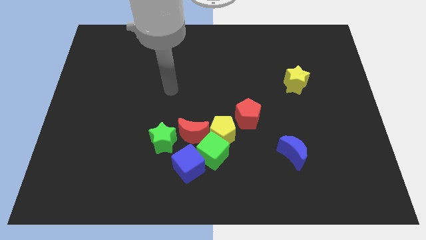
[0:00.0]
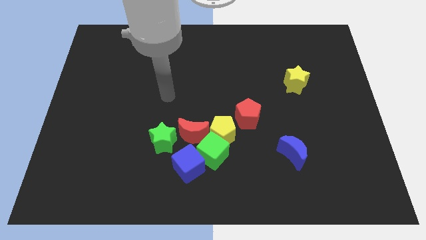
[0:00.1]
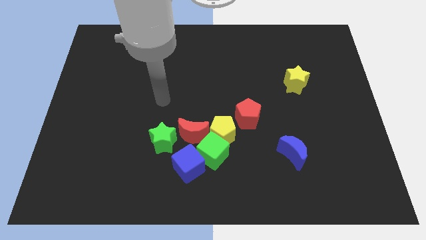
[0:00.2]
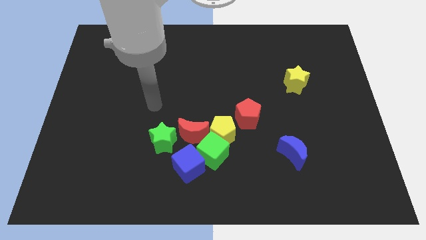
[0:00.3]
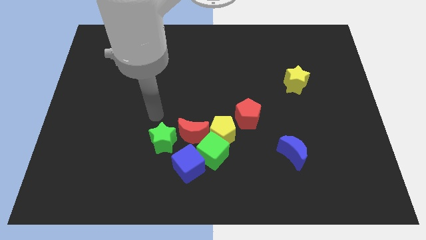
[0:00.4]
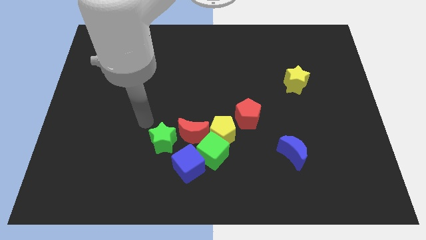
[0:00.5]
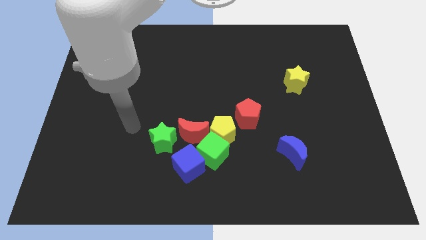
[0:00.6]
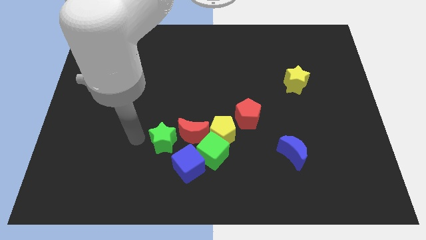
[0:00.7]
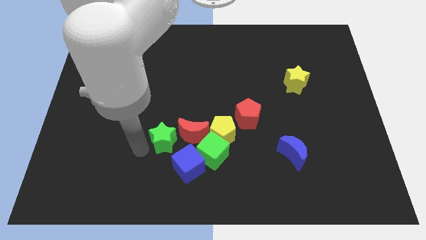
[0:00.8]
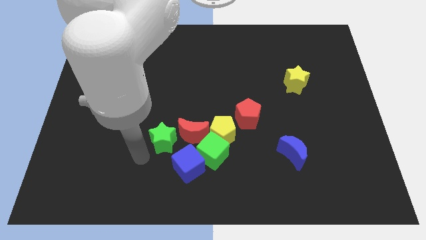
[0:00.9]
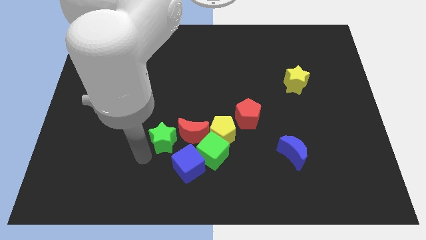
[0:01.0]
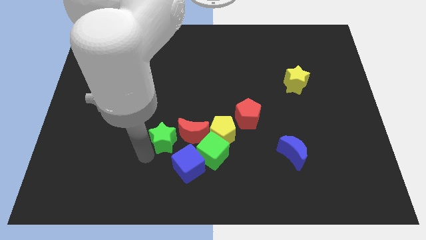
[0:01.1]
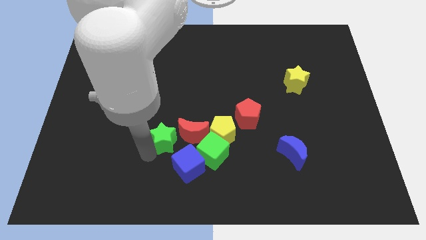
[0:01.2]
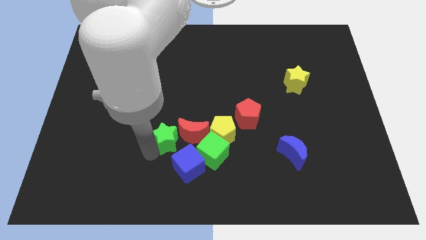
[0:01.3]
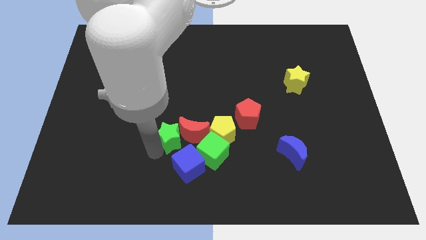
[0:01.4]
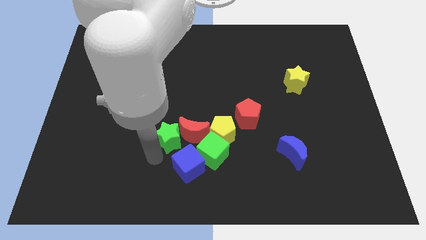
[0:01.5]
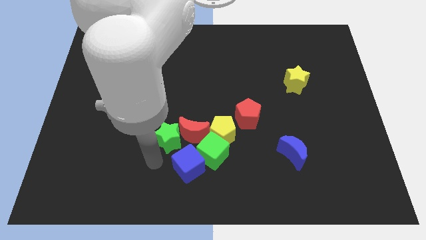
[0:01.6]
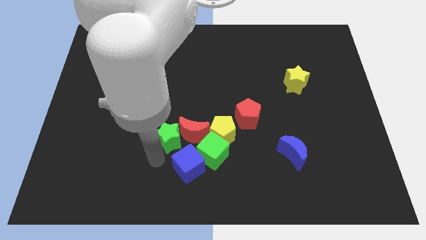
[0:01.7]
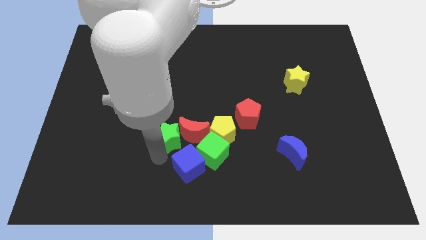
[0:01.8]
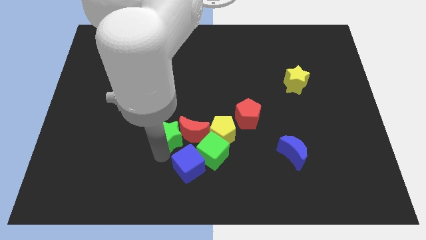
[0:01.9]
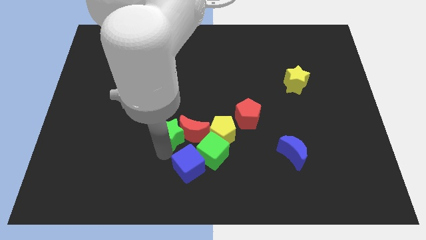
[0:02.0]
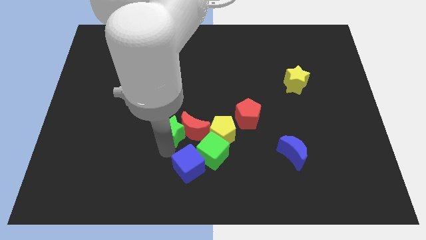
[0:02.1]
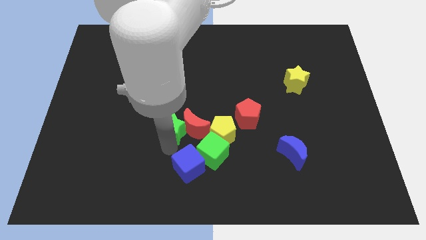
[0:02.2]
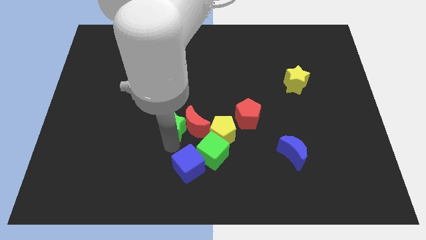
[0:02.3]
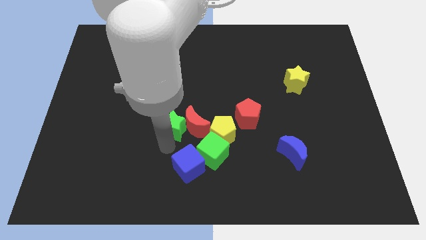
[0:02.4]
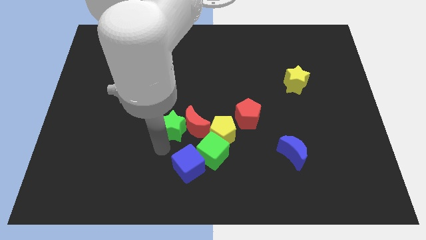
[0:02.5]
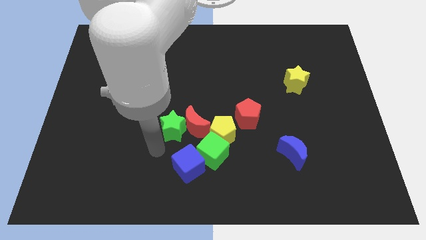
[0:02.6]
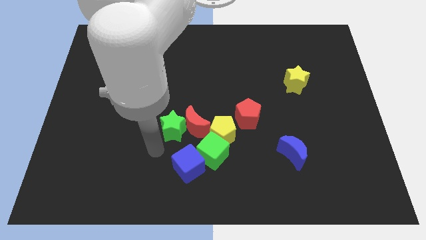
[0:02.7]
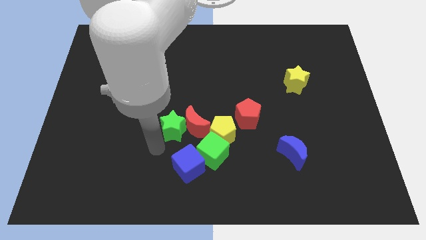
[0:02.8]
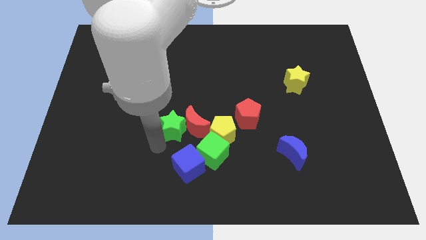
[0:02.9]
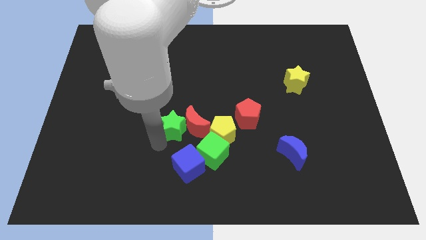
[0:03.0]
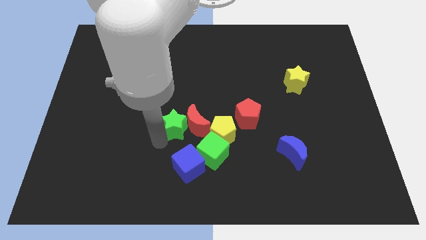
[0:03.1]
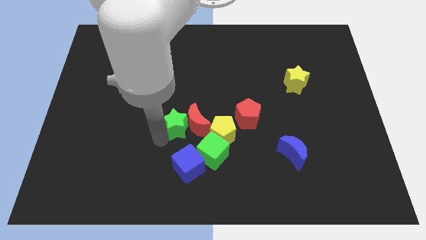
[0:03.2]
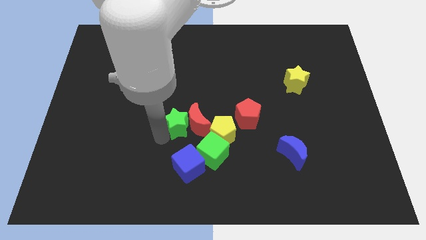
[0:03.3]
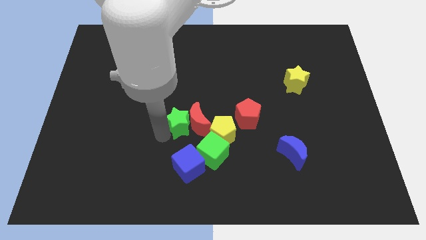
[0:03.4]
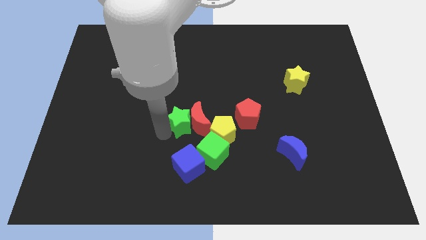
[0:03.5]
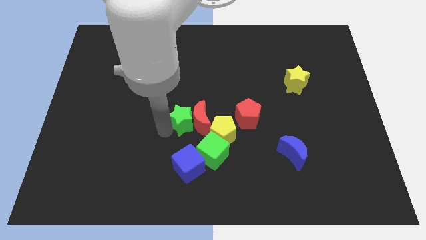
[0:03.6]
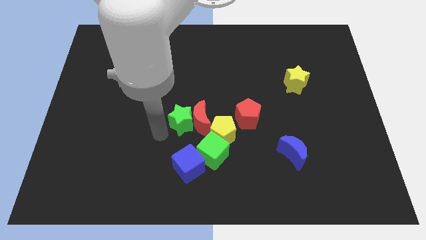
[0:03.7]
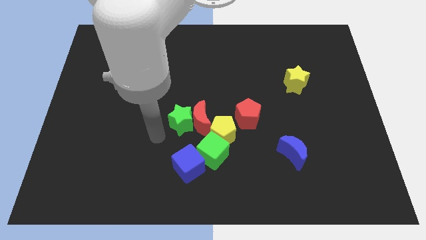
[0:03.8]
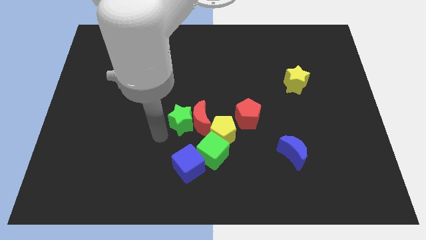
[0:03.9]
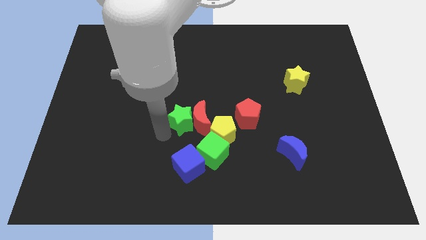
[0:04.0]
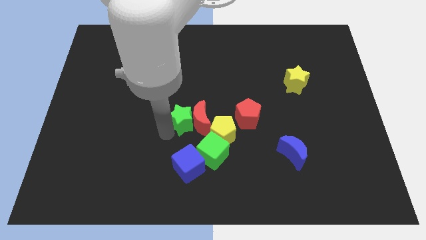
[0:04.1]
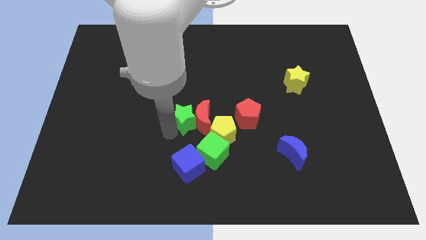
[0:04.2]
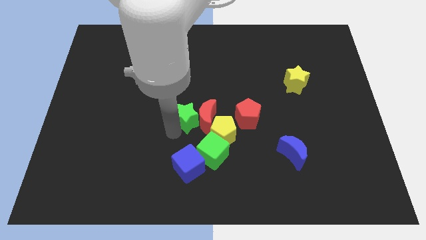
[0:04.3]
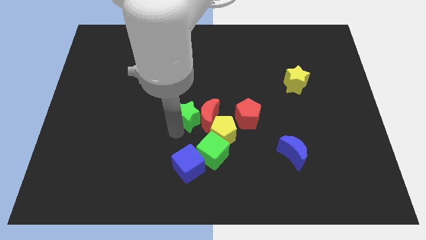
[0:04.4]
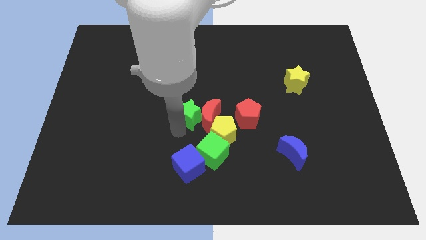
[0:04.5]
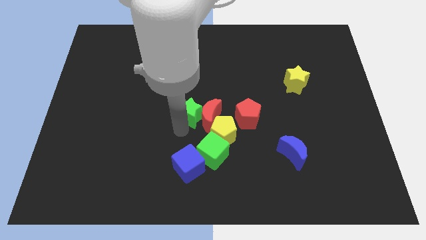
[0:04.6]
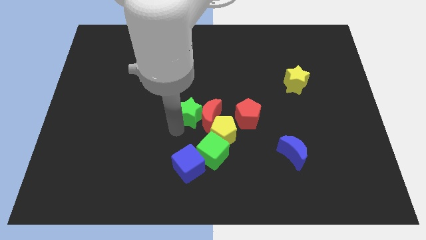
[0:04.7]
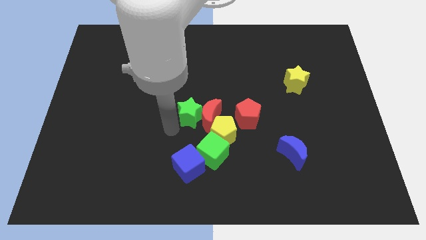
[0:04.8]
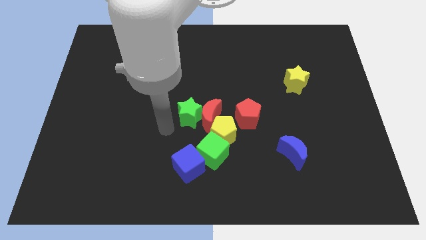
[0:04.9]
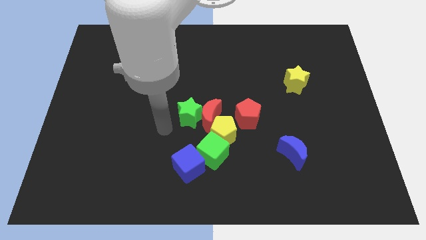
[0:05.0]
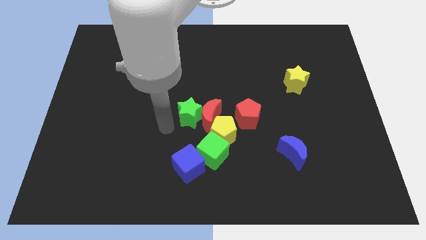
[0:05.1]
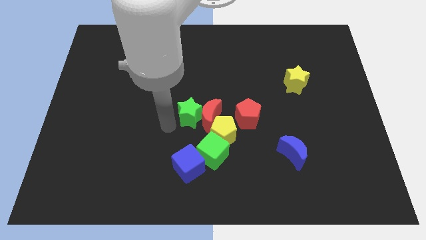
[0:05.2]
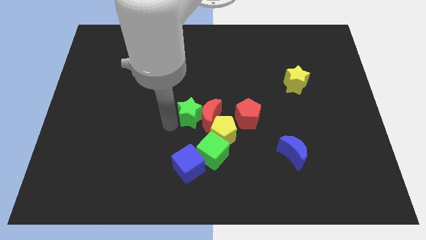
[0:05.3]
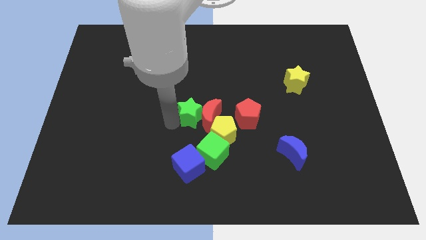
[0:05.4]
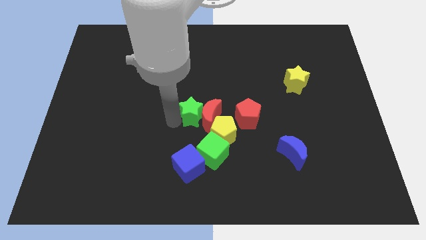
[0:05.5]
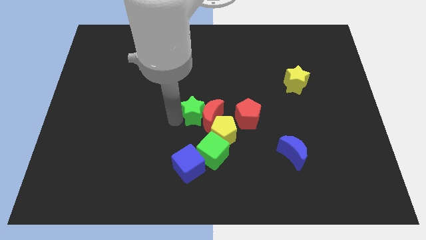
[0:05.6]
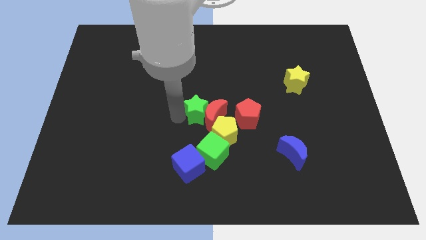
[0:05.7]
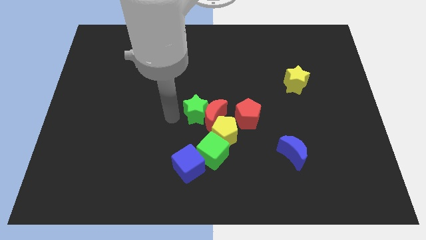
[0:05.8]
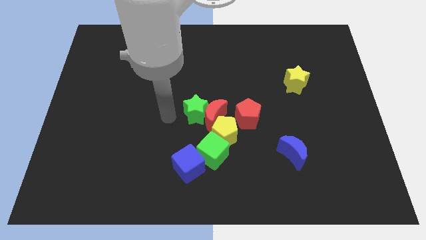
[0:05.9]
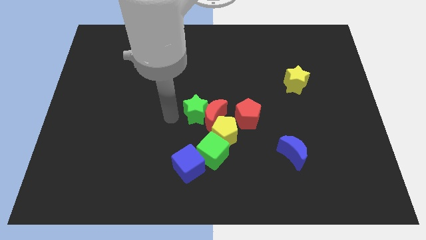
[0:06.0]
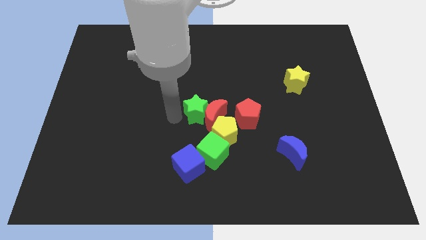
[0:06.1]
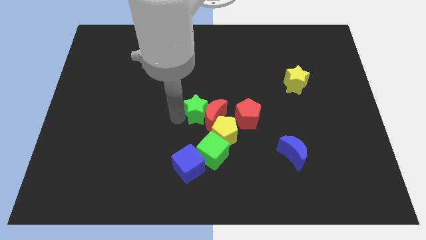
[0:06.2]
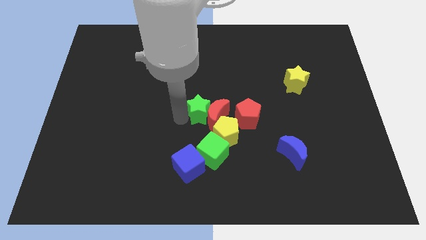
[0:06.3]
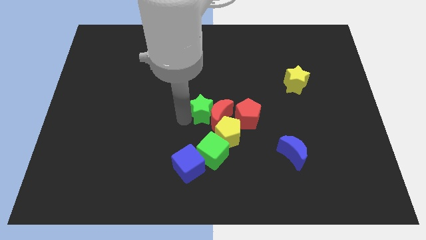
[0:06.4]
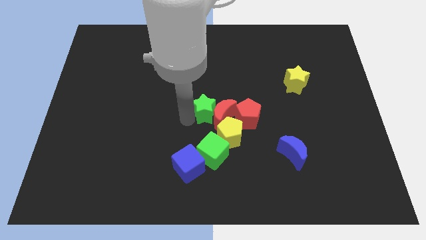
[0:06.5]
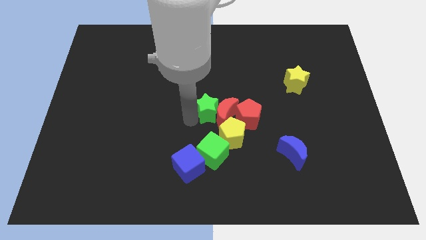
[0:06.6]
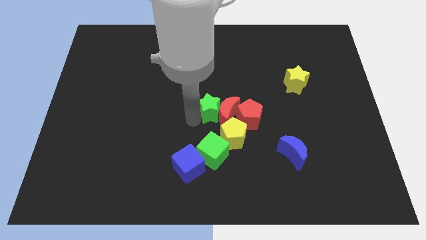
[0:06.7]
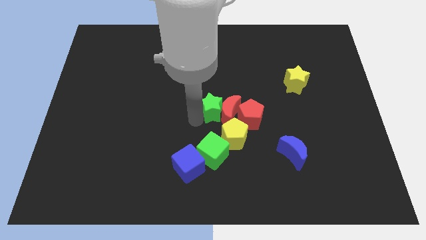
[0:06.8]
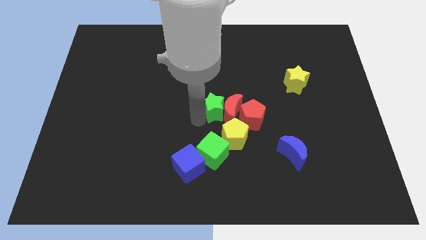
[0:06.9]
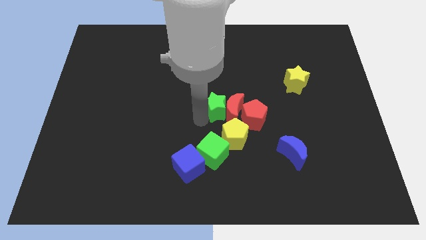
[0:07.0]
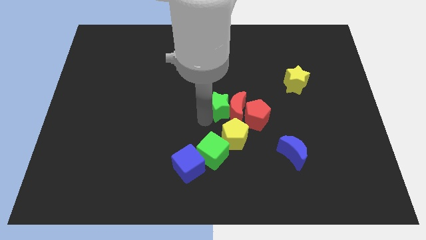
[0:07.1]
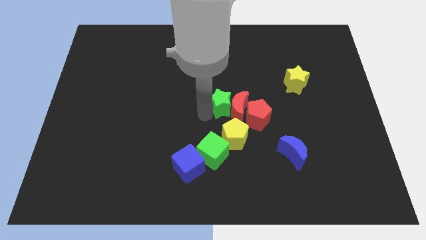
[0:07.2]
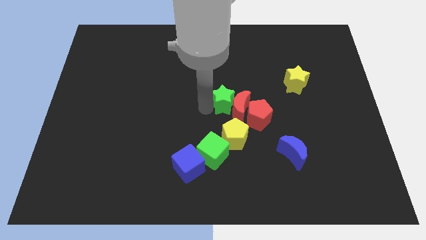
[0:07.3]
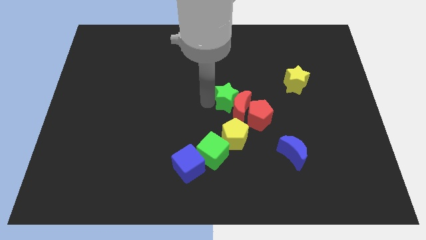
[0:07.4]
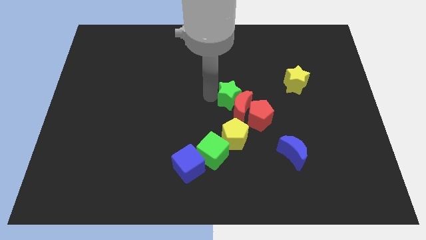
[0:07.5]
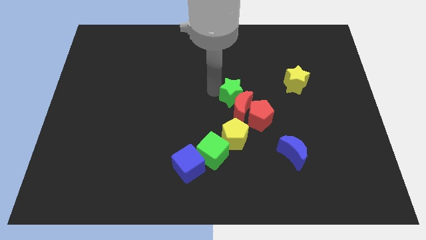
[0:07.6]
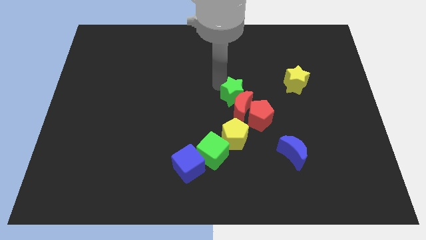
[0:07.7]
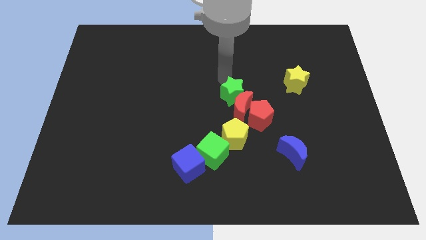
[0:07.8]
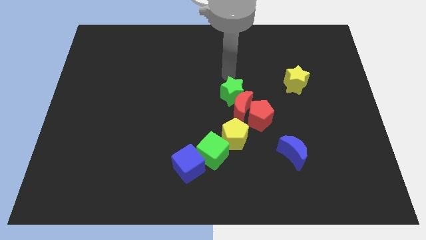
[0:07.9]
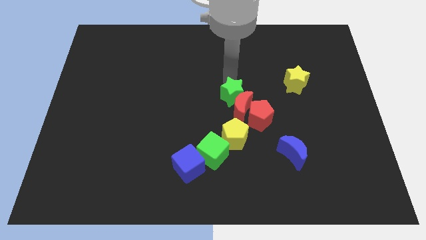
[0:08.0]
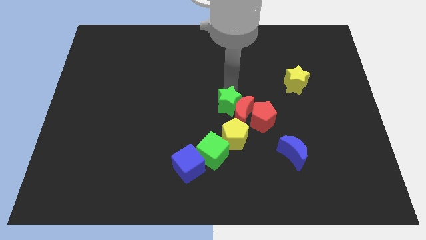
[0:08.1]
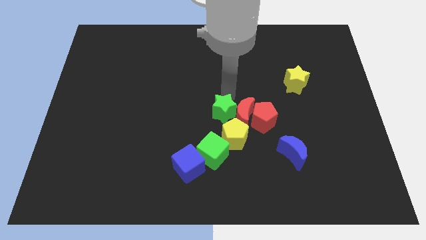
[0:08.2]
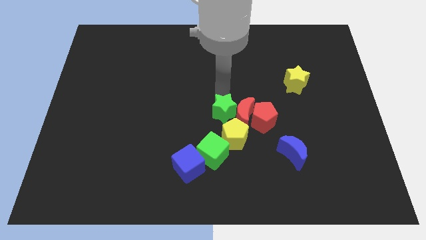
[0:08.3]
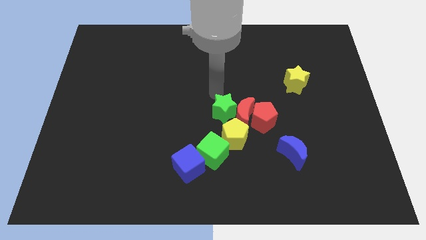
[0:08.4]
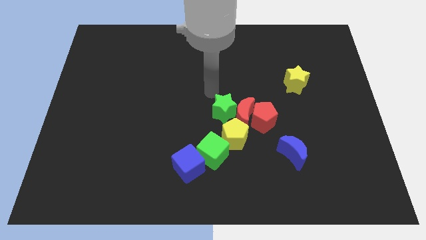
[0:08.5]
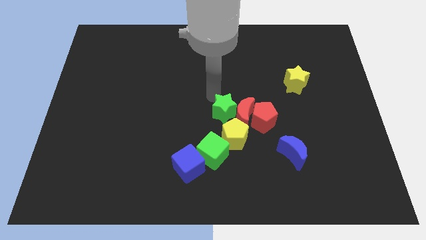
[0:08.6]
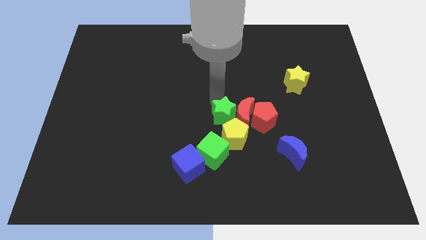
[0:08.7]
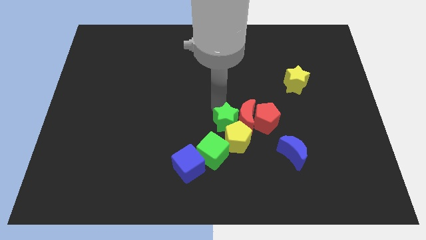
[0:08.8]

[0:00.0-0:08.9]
put the green star diagonally up and to the right of the green cube
